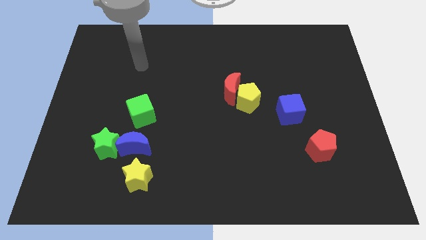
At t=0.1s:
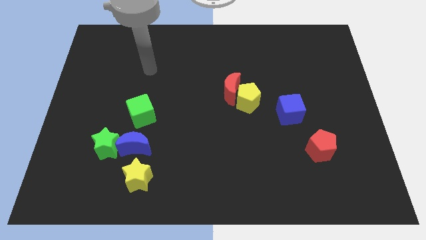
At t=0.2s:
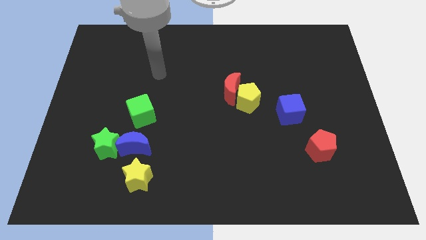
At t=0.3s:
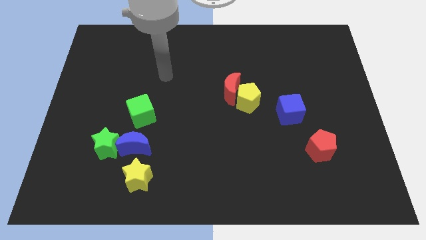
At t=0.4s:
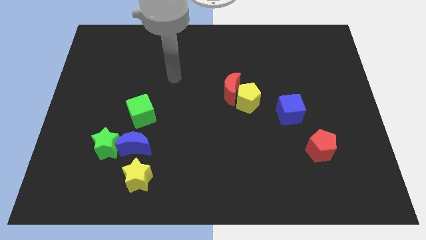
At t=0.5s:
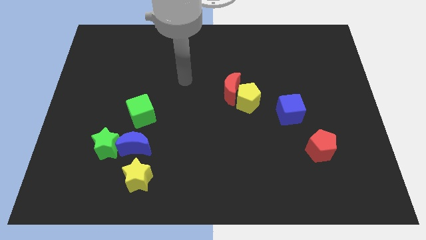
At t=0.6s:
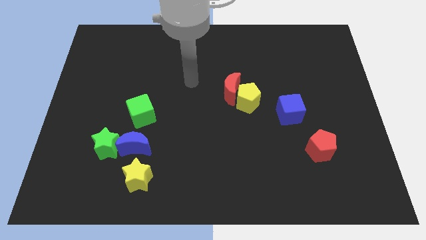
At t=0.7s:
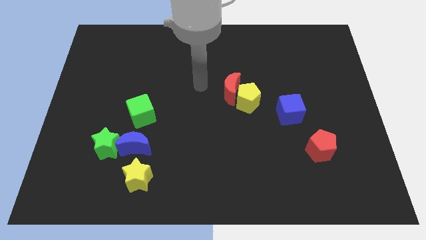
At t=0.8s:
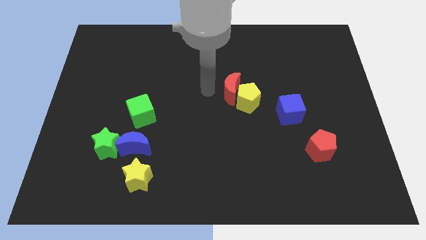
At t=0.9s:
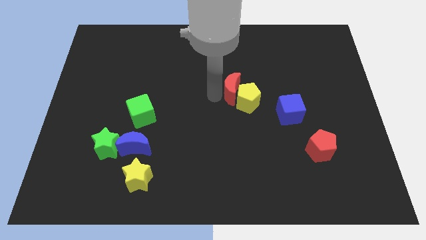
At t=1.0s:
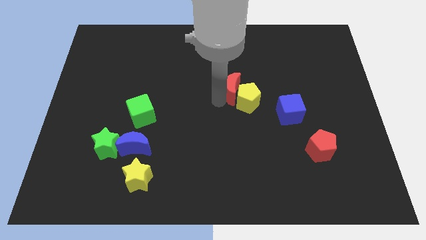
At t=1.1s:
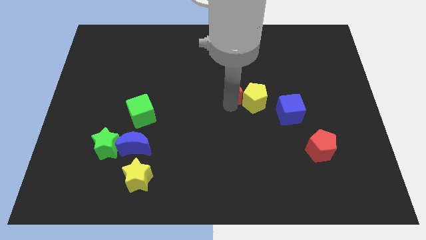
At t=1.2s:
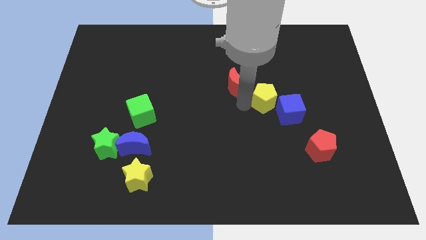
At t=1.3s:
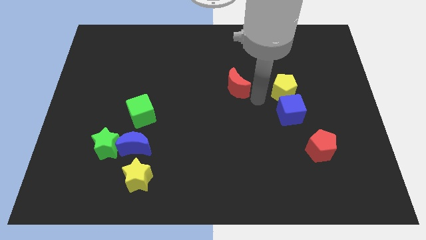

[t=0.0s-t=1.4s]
pull the red moon apart from the yellow pentagon

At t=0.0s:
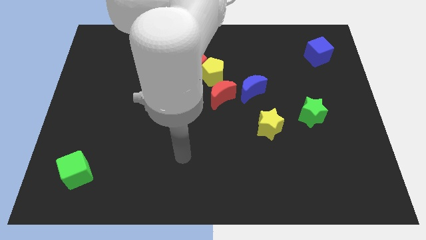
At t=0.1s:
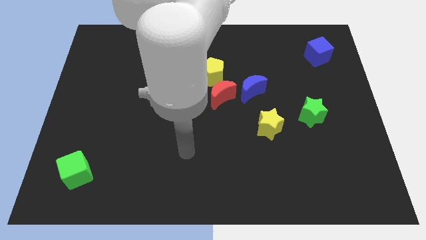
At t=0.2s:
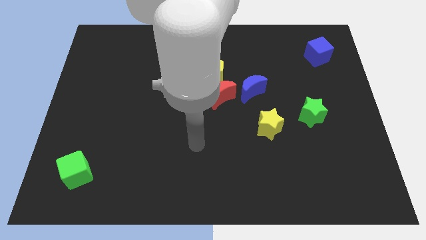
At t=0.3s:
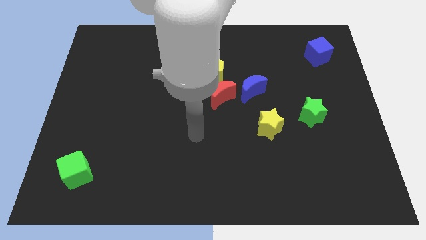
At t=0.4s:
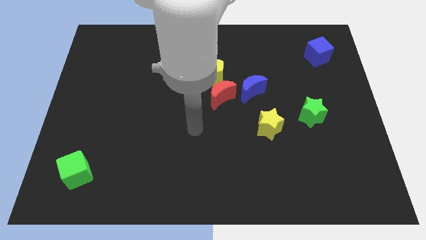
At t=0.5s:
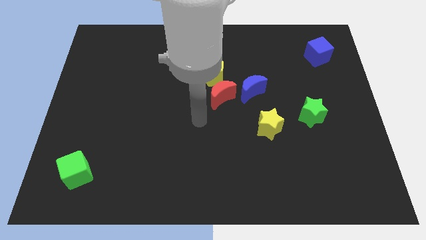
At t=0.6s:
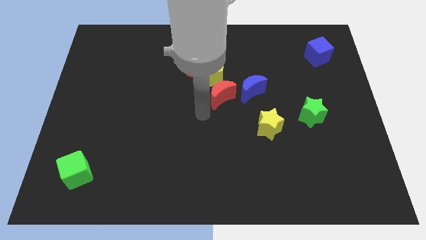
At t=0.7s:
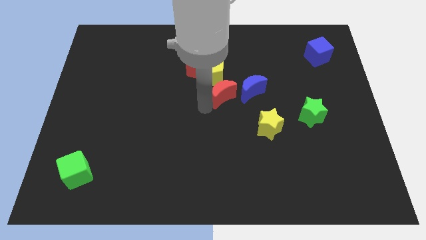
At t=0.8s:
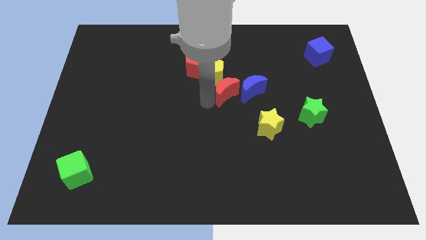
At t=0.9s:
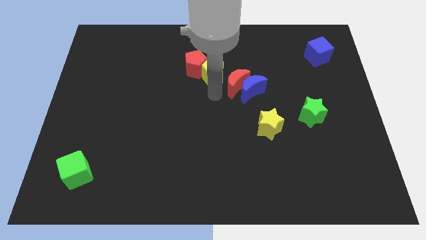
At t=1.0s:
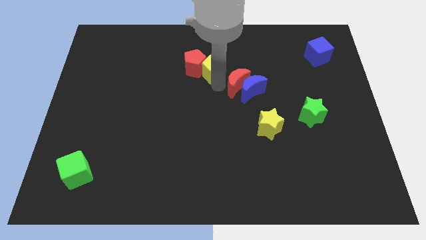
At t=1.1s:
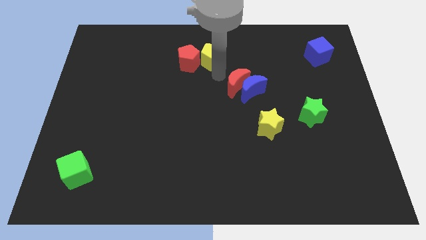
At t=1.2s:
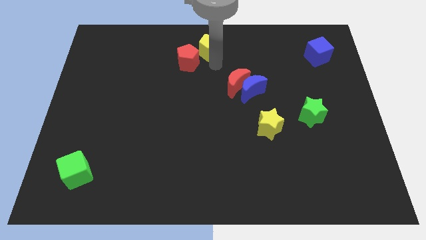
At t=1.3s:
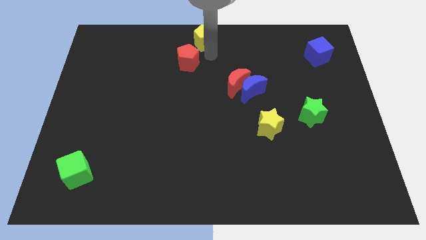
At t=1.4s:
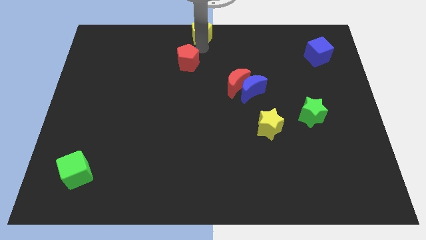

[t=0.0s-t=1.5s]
pull the red pentagon apart from the yellow pentagon

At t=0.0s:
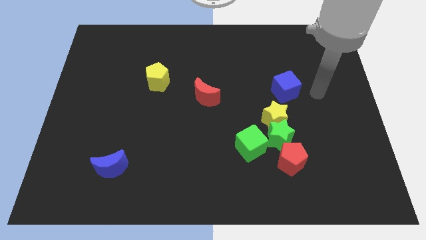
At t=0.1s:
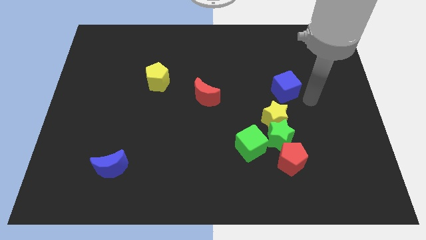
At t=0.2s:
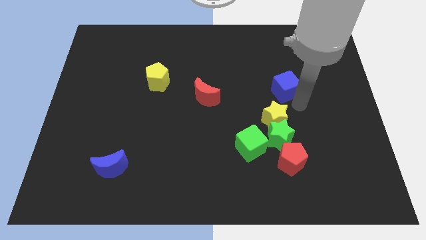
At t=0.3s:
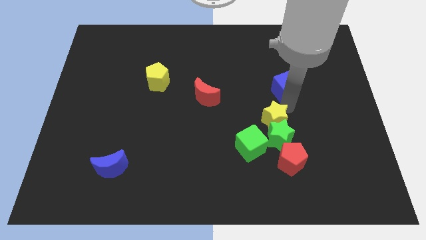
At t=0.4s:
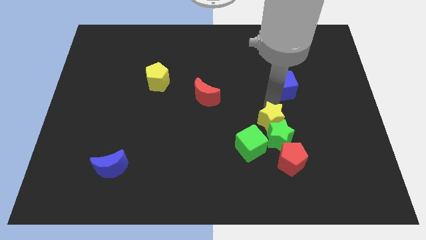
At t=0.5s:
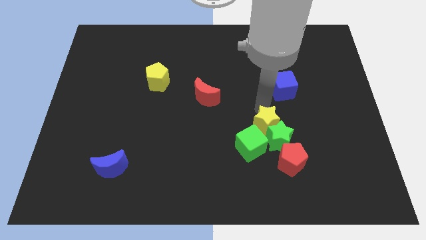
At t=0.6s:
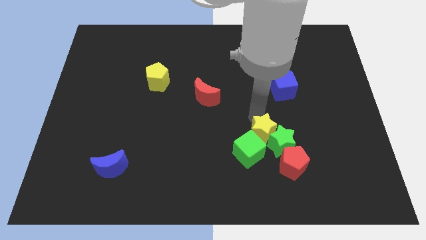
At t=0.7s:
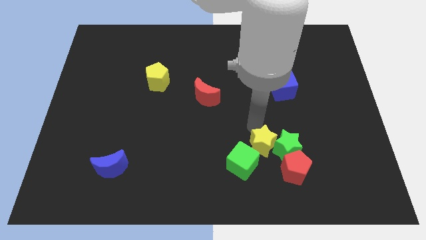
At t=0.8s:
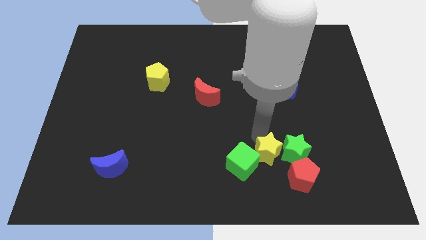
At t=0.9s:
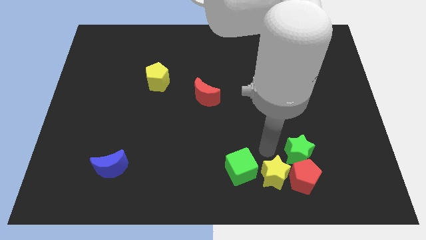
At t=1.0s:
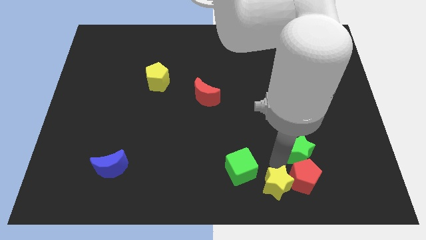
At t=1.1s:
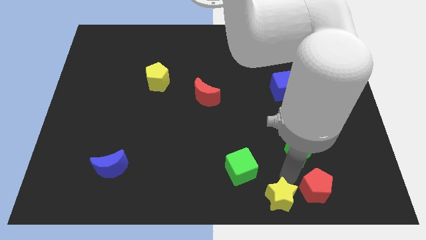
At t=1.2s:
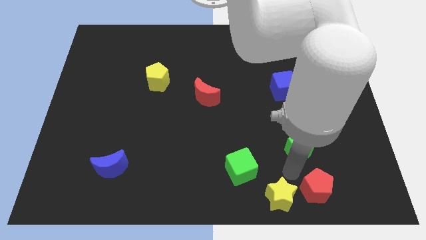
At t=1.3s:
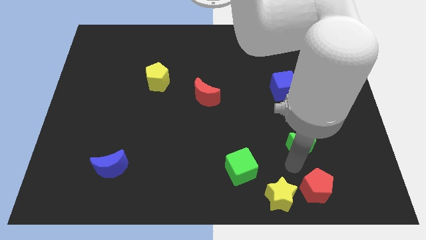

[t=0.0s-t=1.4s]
separate the green star from the yellow star, red pentagon, and green cube

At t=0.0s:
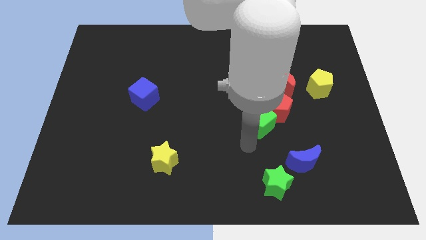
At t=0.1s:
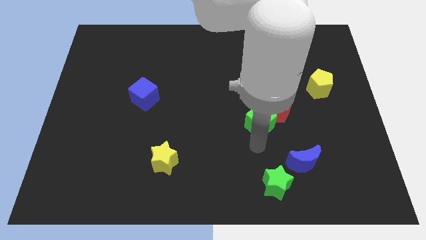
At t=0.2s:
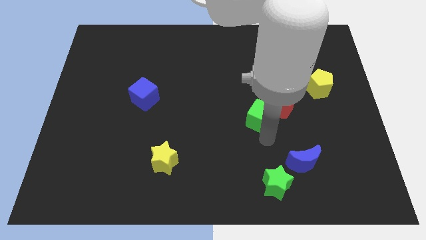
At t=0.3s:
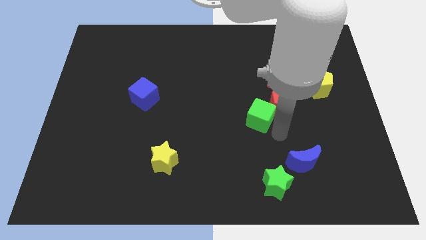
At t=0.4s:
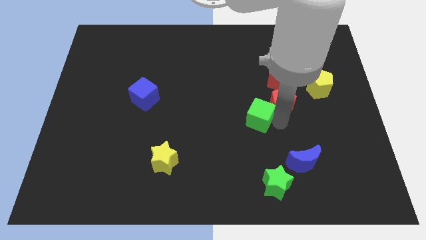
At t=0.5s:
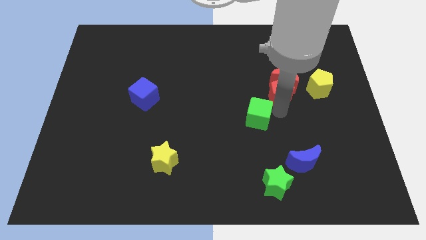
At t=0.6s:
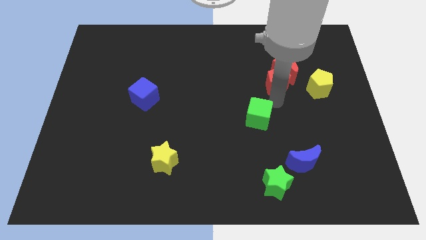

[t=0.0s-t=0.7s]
separate the green cube from the red pentagon

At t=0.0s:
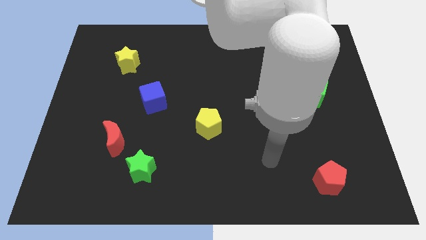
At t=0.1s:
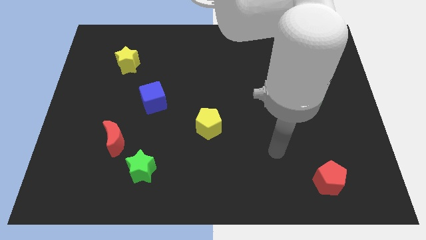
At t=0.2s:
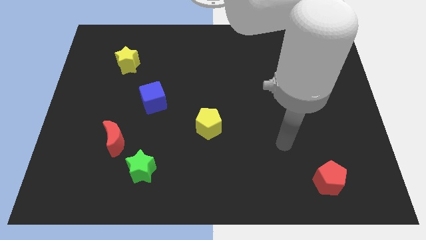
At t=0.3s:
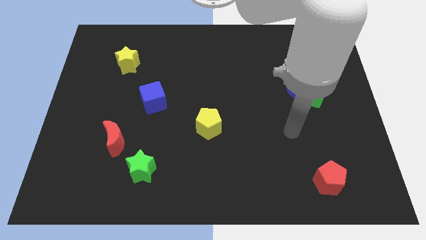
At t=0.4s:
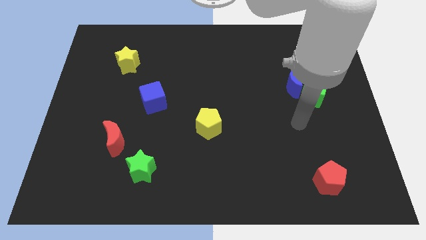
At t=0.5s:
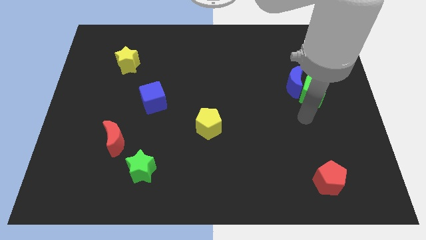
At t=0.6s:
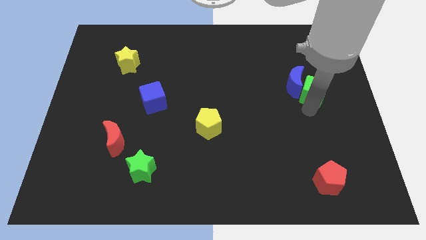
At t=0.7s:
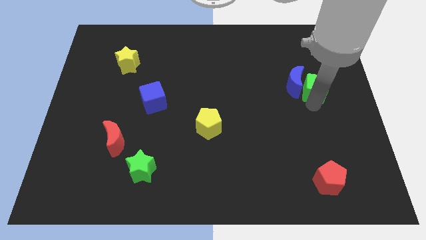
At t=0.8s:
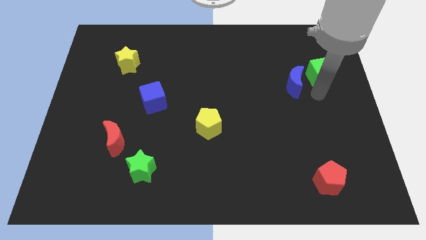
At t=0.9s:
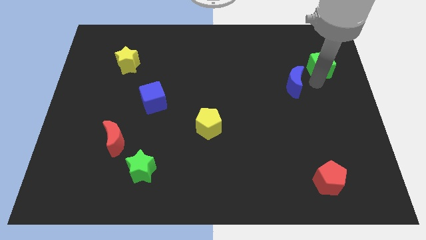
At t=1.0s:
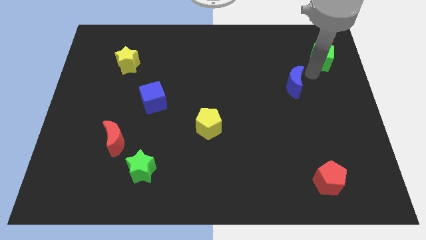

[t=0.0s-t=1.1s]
pull the blue moon apart from the green cube

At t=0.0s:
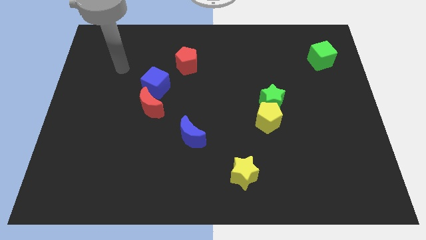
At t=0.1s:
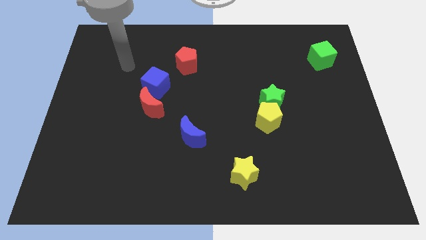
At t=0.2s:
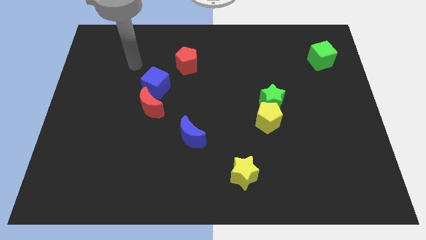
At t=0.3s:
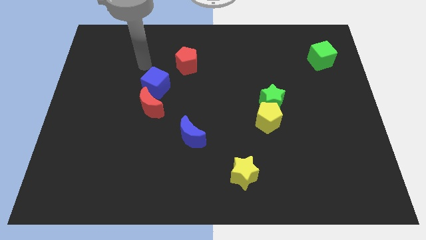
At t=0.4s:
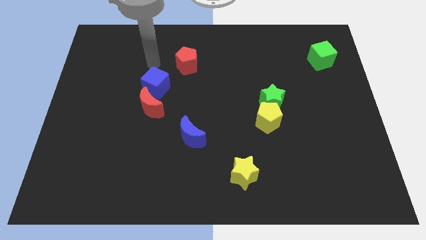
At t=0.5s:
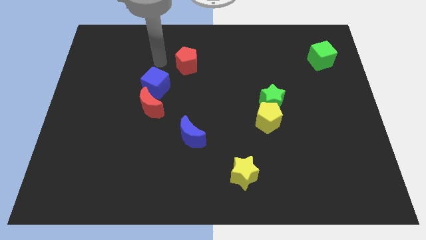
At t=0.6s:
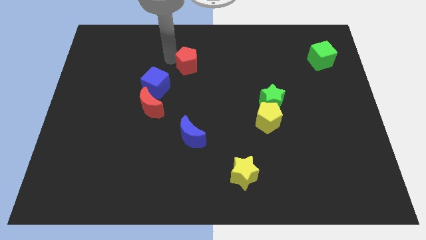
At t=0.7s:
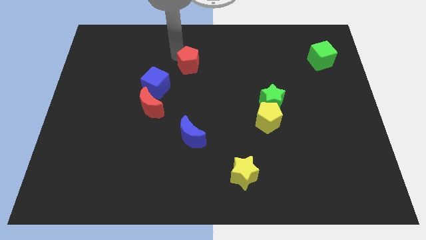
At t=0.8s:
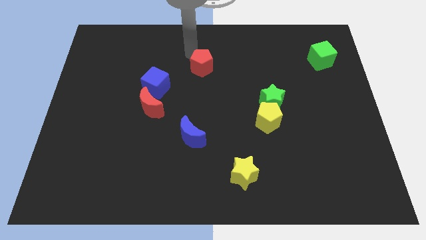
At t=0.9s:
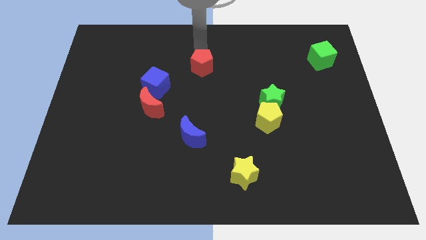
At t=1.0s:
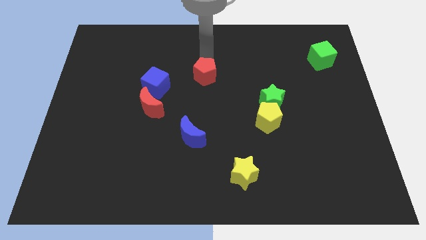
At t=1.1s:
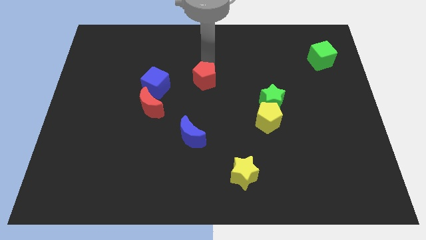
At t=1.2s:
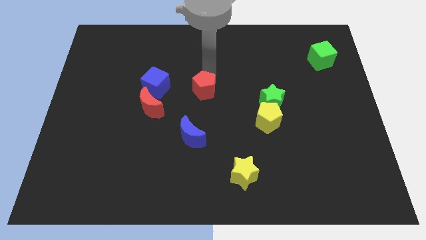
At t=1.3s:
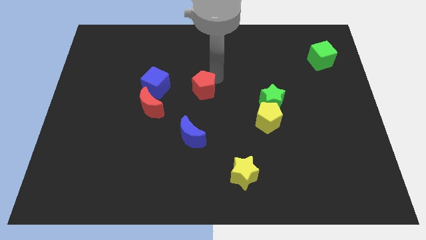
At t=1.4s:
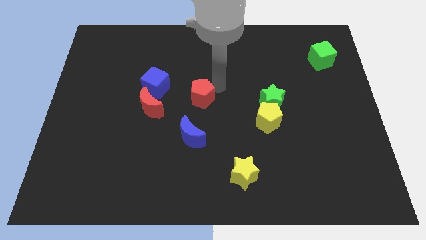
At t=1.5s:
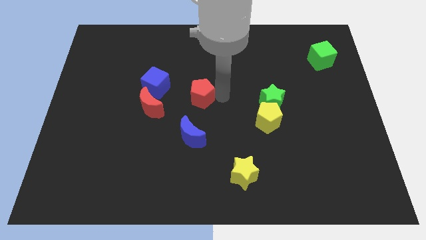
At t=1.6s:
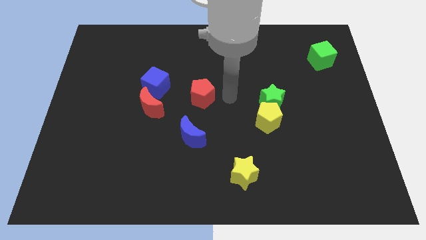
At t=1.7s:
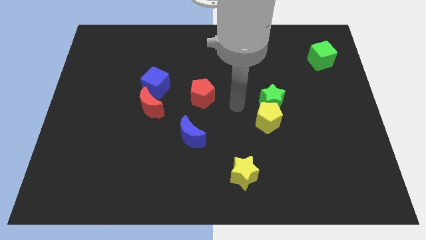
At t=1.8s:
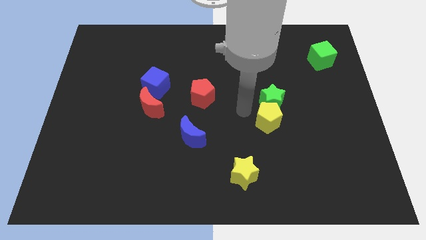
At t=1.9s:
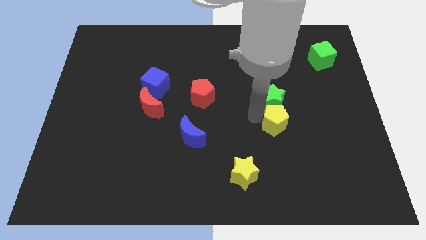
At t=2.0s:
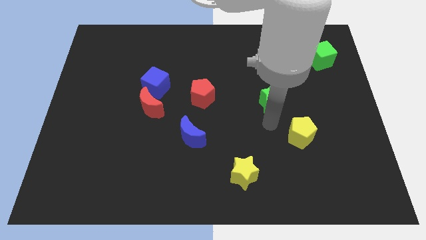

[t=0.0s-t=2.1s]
move the green star away from the yellow pentagon

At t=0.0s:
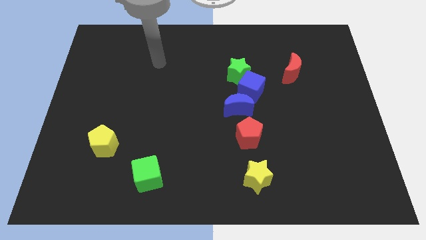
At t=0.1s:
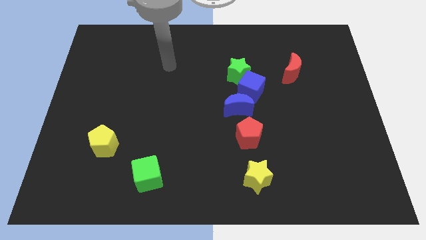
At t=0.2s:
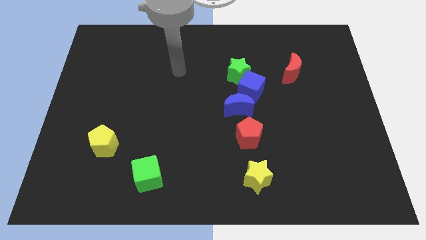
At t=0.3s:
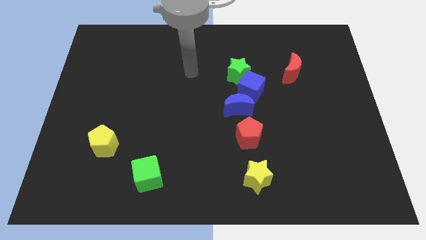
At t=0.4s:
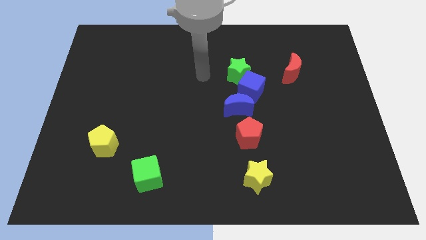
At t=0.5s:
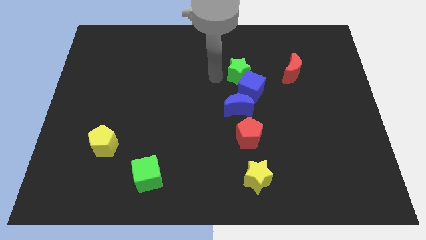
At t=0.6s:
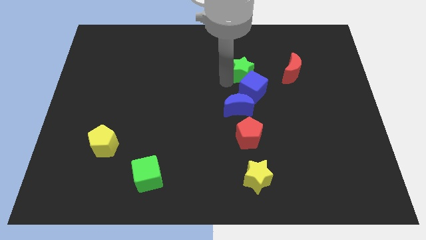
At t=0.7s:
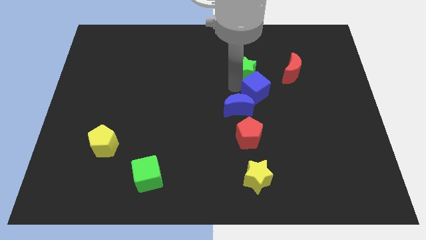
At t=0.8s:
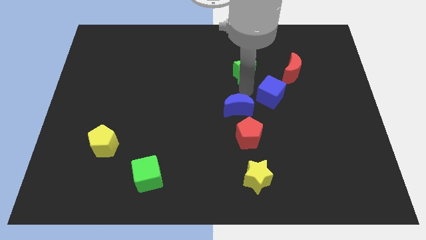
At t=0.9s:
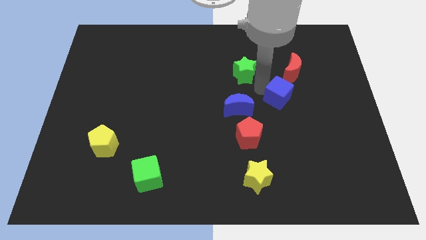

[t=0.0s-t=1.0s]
separate the green star from the blue cube
